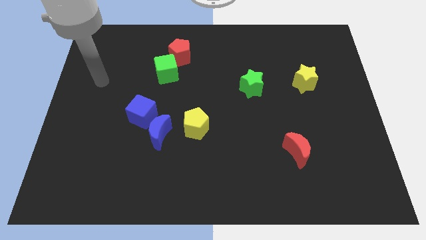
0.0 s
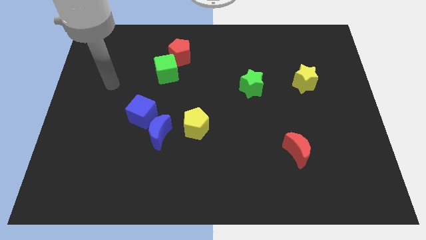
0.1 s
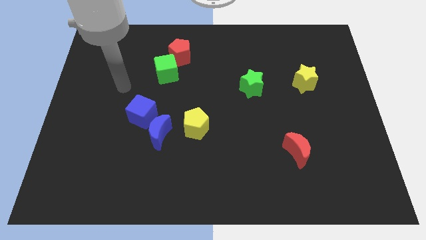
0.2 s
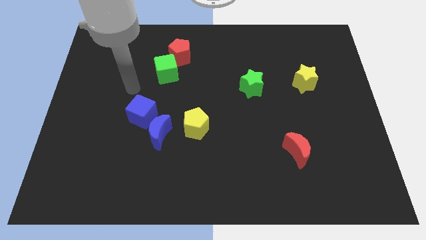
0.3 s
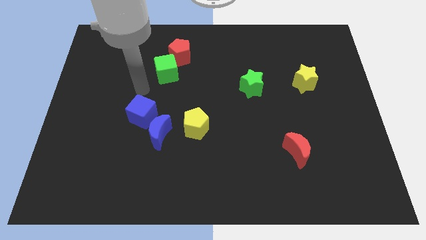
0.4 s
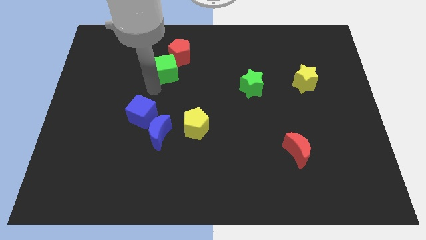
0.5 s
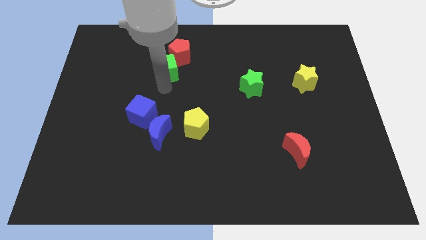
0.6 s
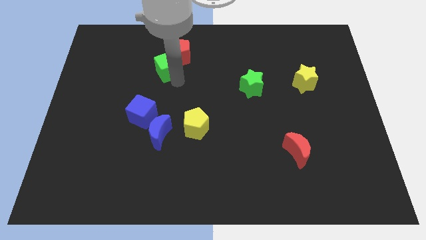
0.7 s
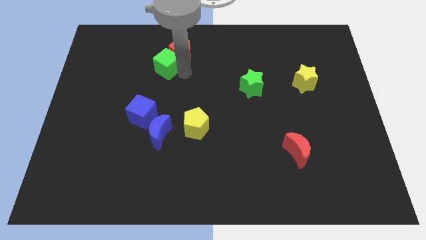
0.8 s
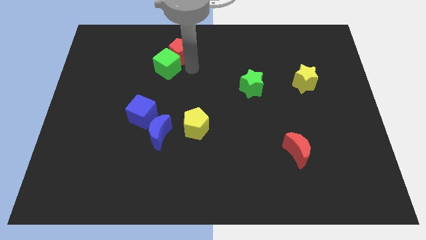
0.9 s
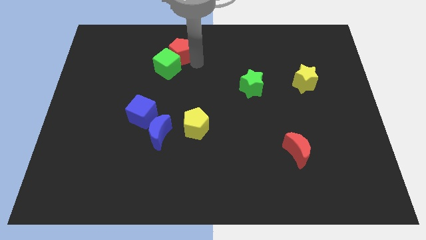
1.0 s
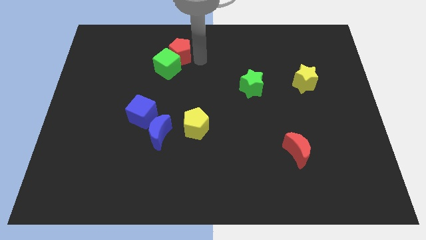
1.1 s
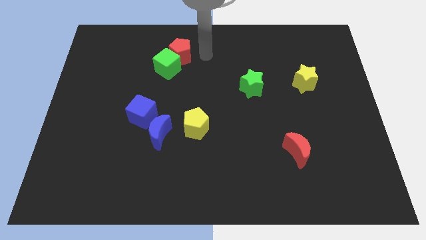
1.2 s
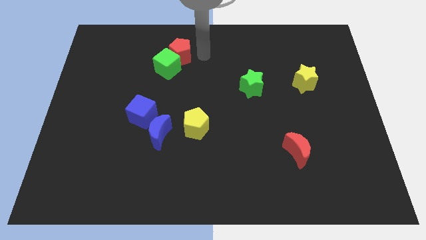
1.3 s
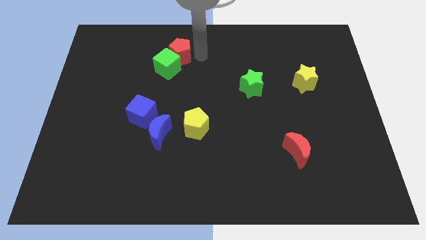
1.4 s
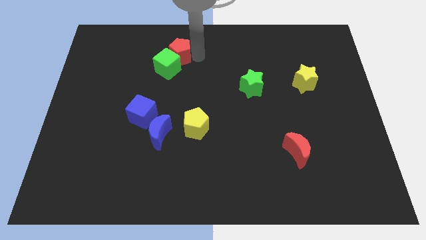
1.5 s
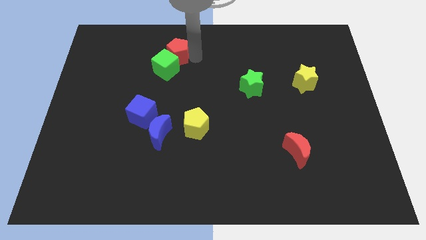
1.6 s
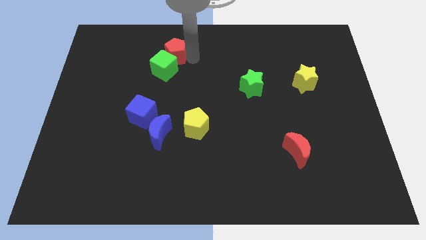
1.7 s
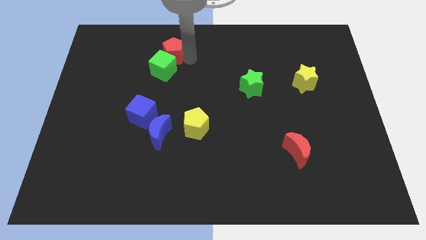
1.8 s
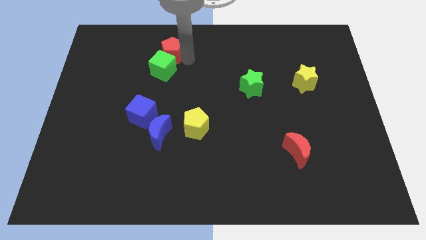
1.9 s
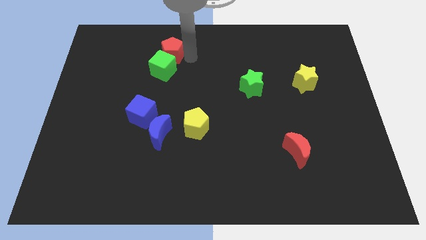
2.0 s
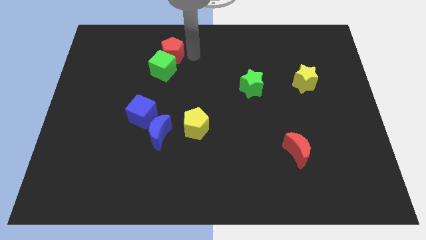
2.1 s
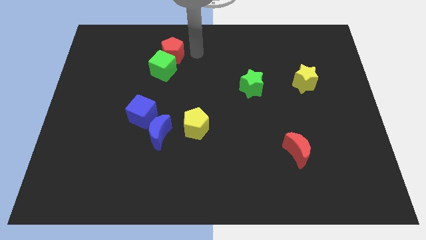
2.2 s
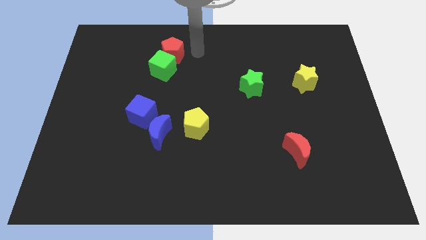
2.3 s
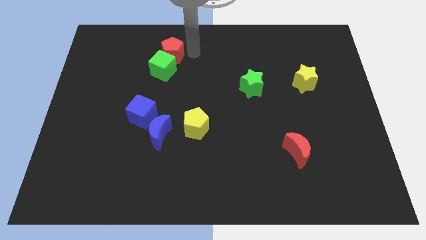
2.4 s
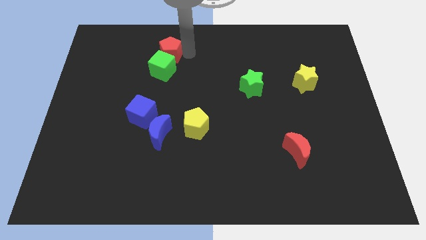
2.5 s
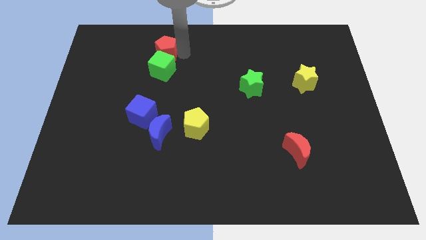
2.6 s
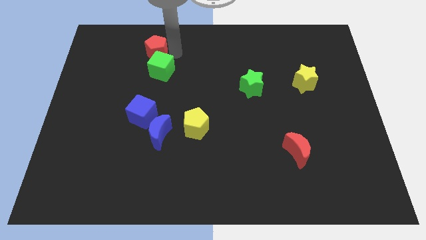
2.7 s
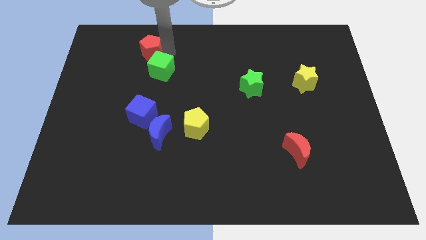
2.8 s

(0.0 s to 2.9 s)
slide the red pentagon a little left

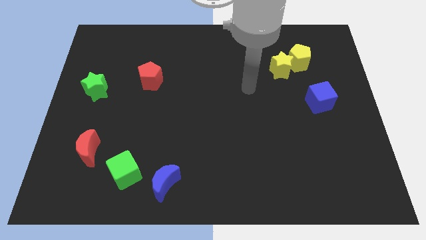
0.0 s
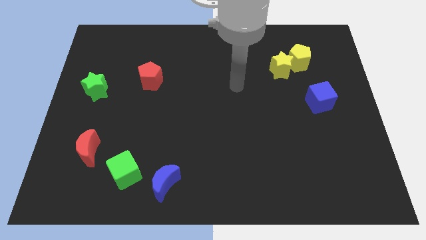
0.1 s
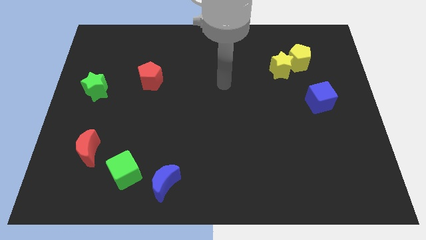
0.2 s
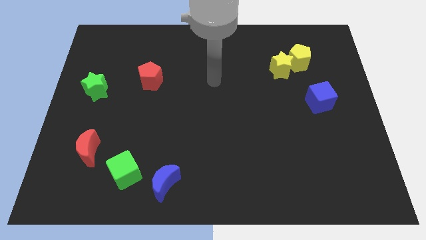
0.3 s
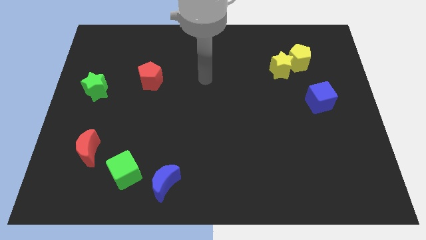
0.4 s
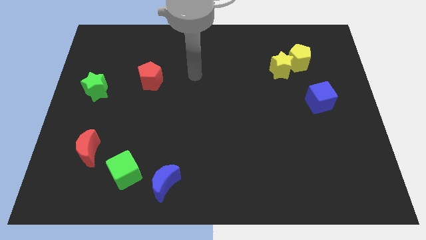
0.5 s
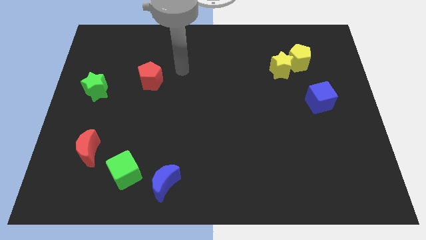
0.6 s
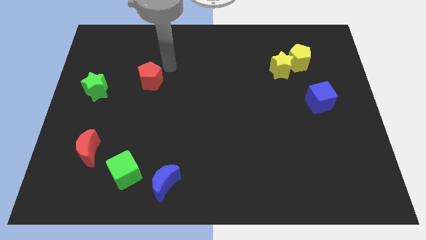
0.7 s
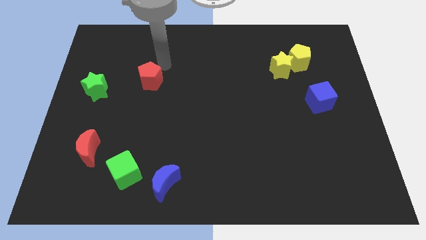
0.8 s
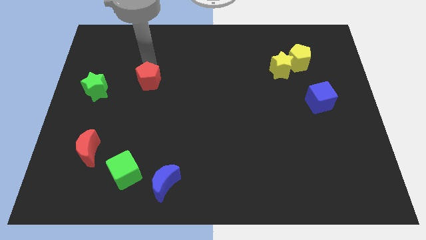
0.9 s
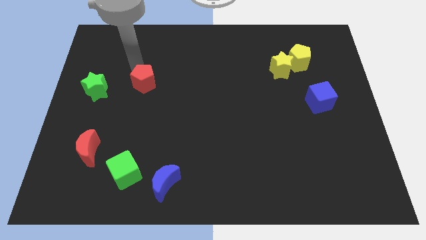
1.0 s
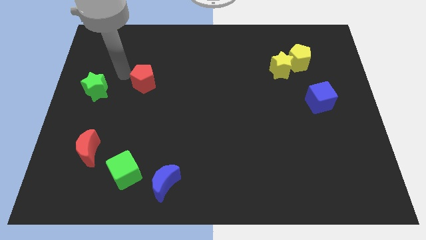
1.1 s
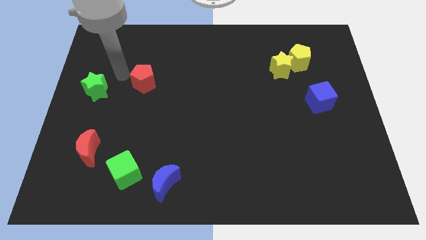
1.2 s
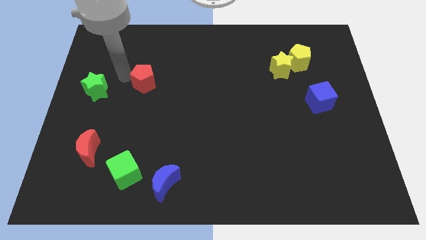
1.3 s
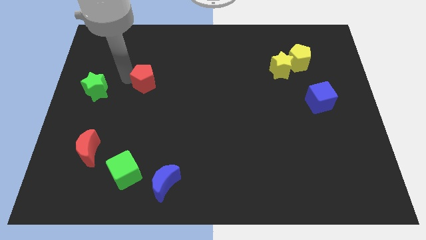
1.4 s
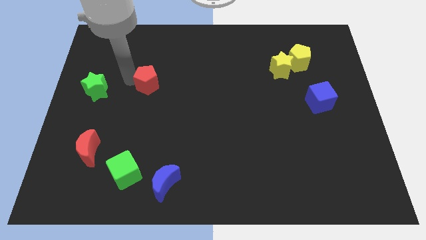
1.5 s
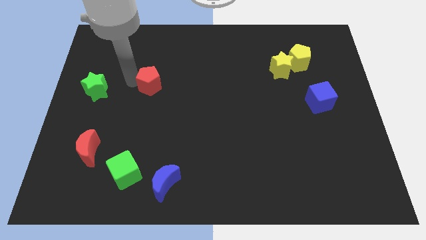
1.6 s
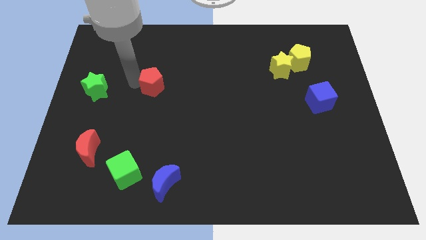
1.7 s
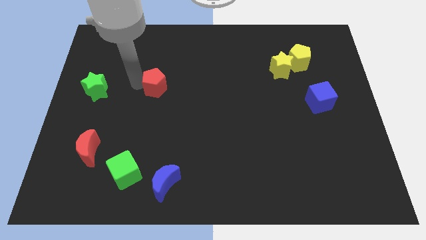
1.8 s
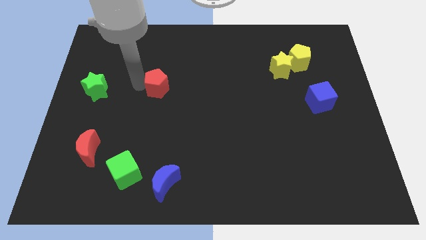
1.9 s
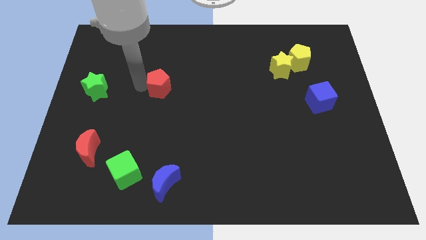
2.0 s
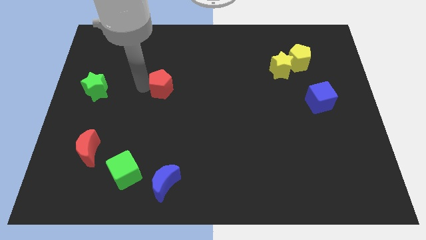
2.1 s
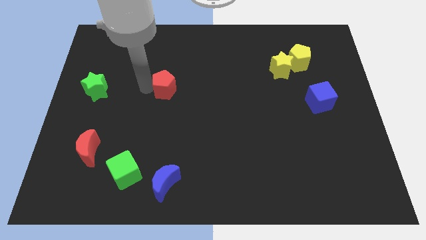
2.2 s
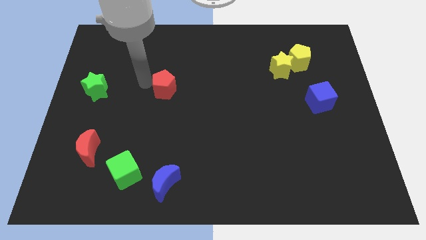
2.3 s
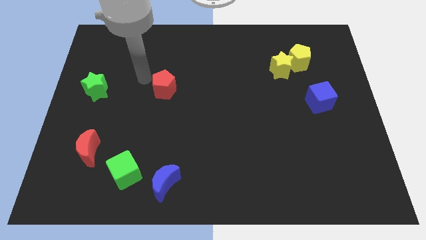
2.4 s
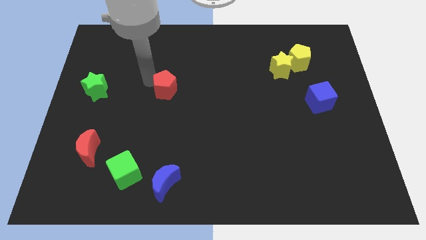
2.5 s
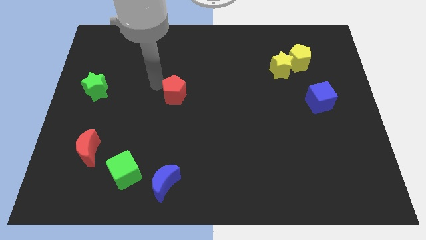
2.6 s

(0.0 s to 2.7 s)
slightly push the red pentagon down and right

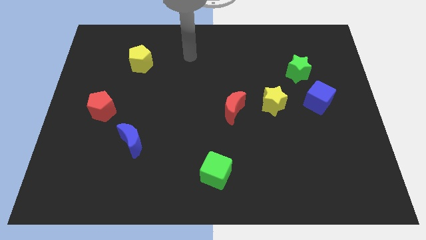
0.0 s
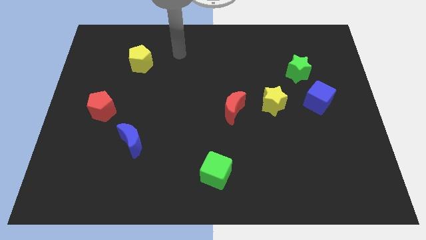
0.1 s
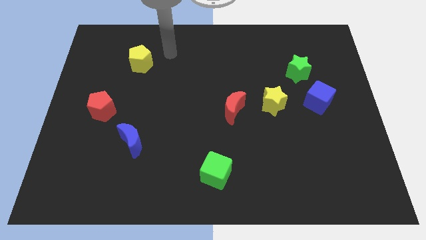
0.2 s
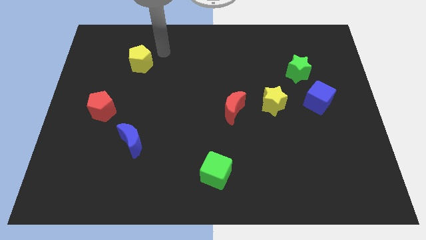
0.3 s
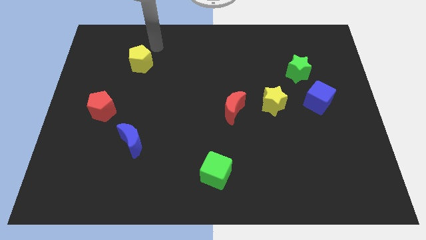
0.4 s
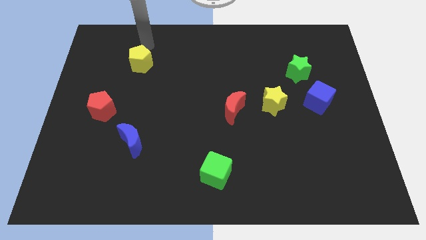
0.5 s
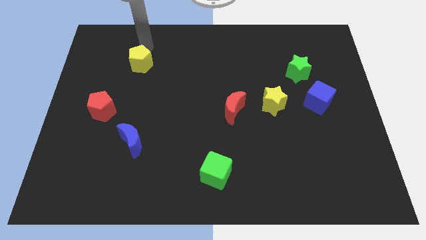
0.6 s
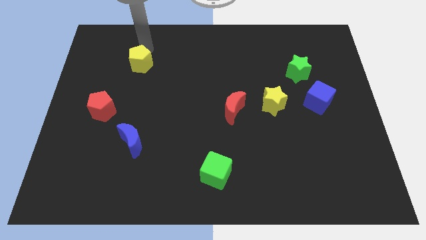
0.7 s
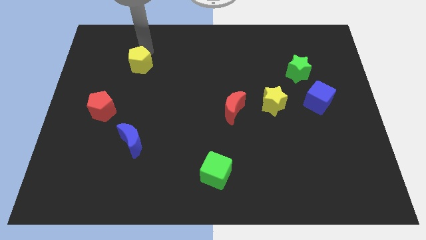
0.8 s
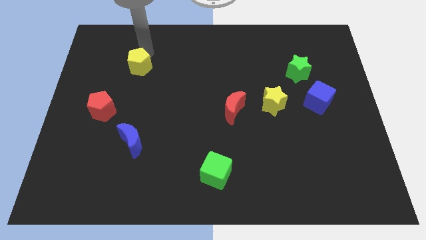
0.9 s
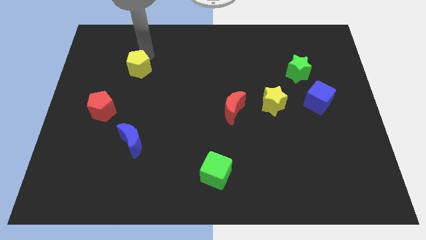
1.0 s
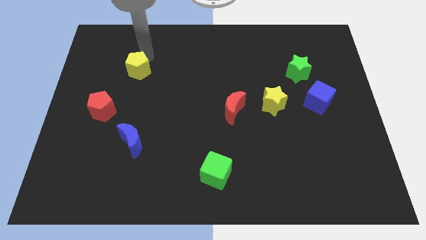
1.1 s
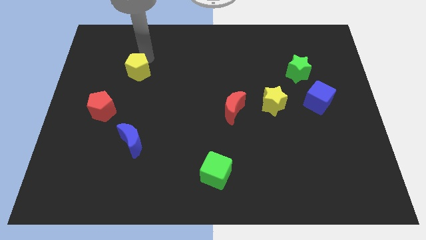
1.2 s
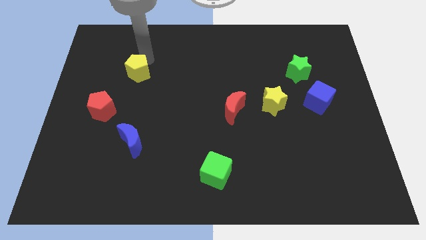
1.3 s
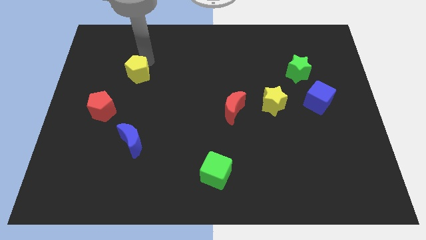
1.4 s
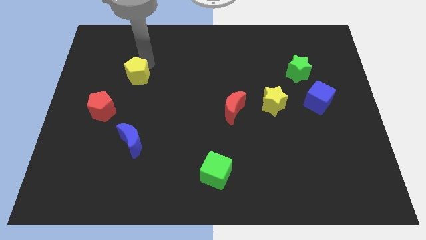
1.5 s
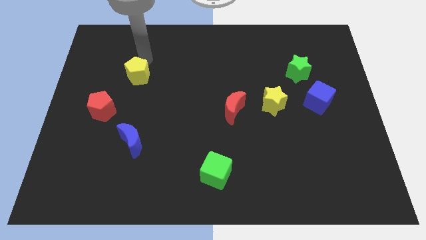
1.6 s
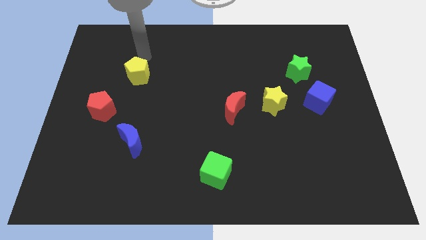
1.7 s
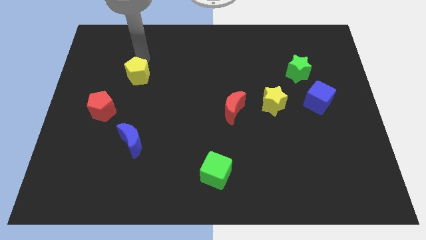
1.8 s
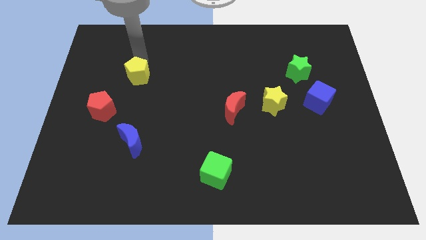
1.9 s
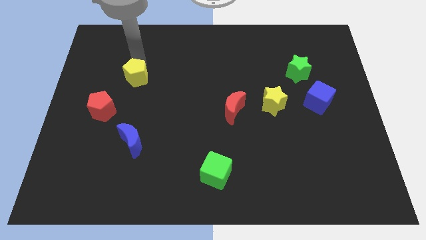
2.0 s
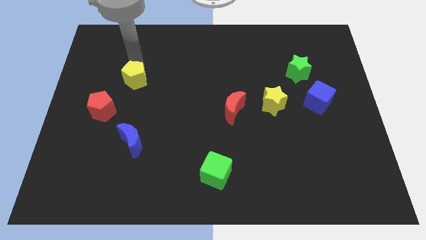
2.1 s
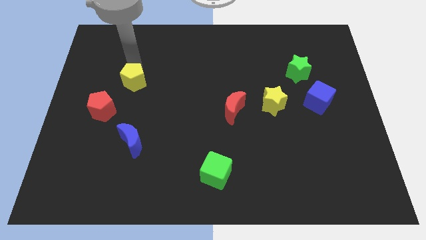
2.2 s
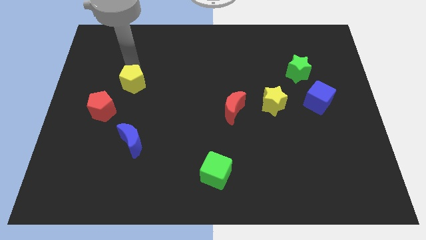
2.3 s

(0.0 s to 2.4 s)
push the yellow pentagon down a bit

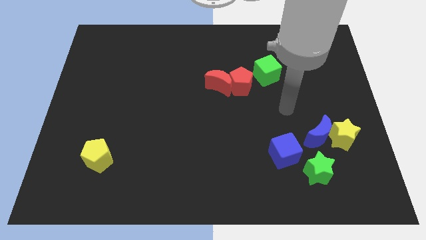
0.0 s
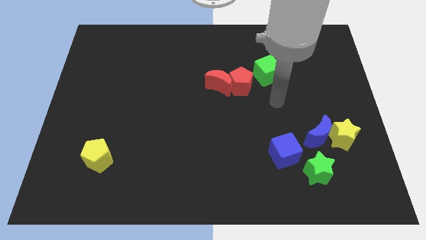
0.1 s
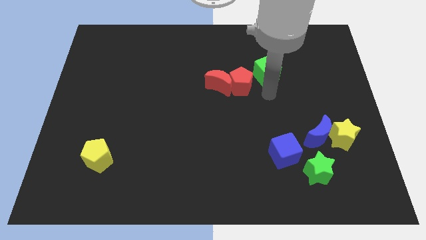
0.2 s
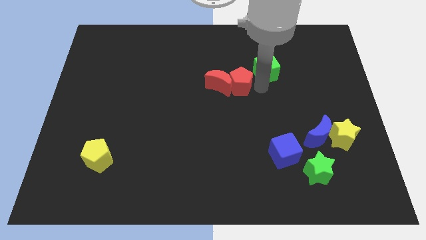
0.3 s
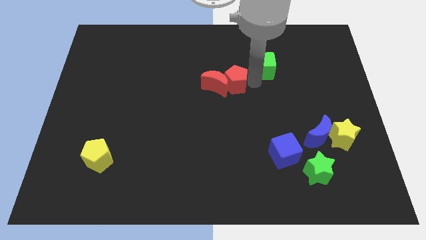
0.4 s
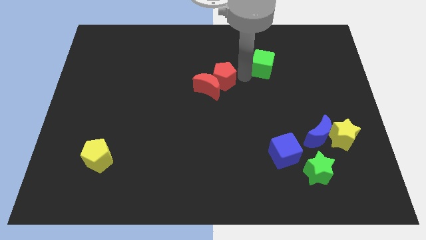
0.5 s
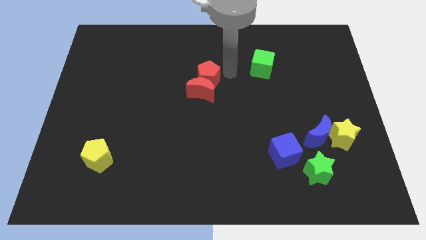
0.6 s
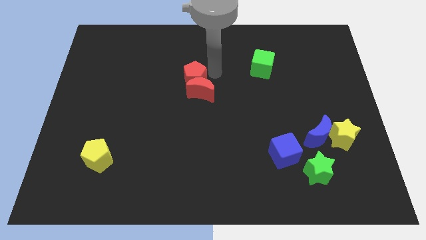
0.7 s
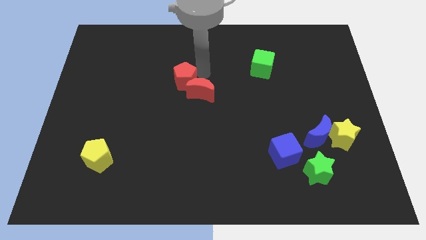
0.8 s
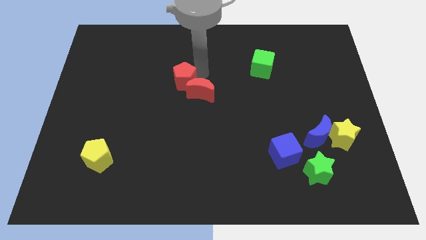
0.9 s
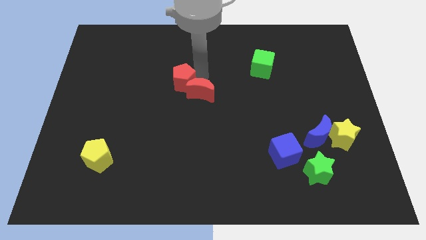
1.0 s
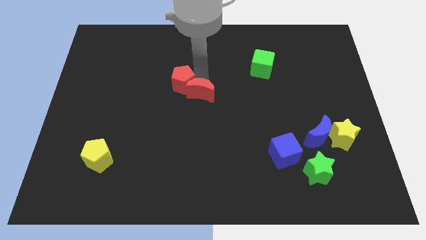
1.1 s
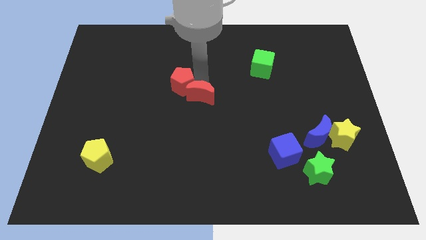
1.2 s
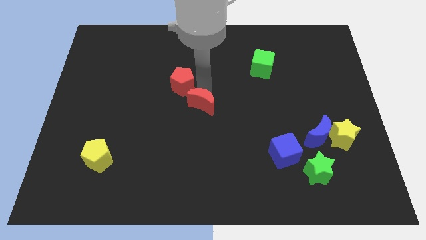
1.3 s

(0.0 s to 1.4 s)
move the red moon diagonally down and to the left somewhat
